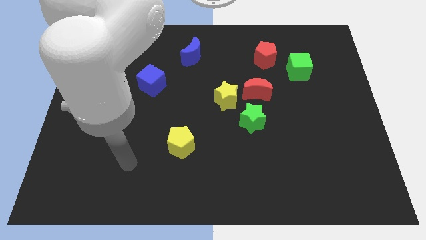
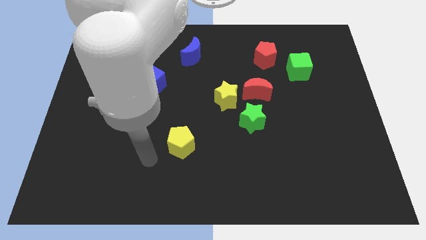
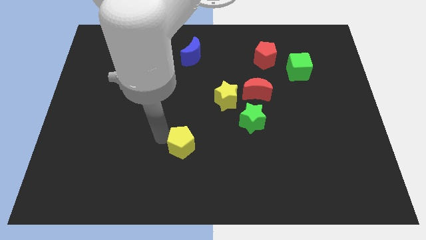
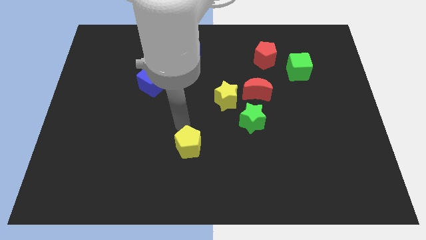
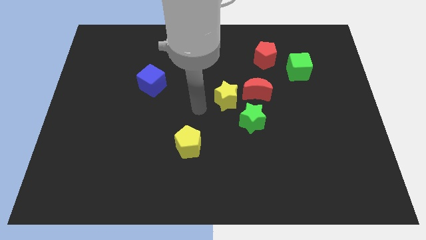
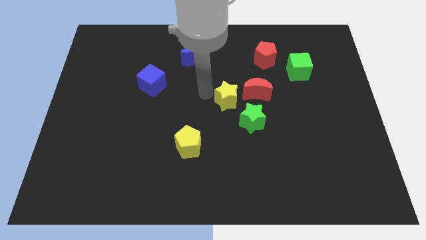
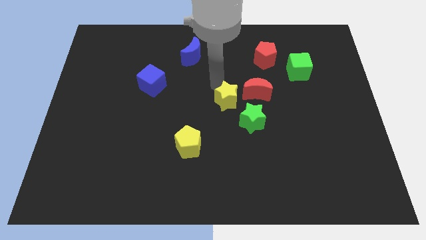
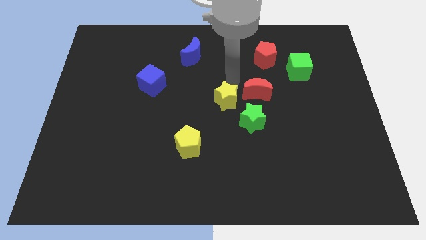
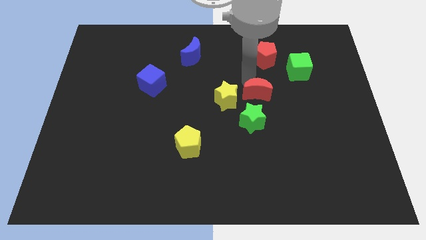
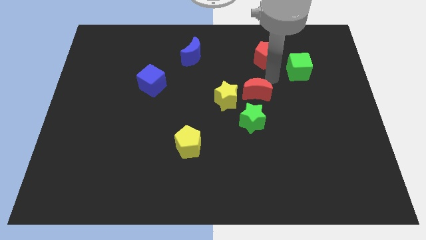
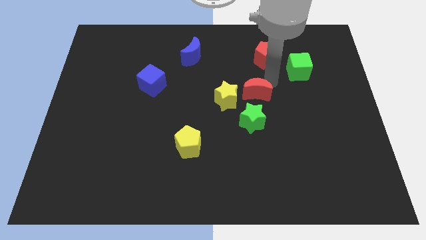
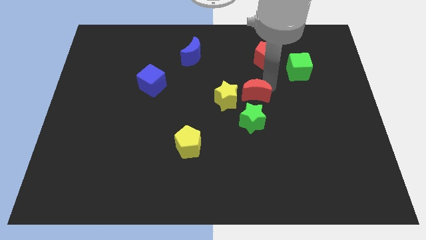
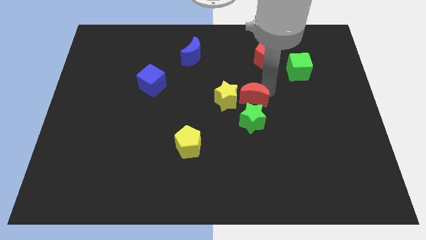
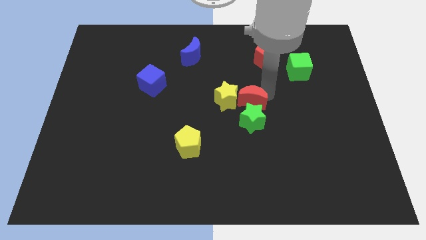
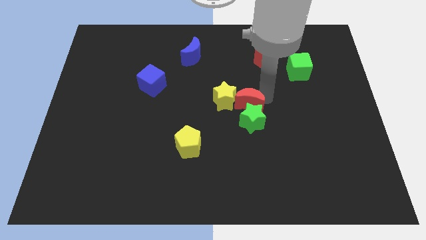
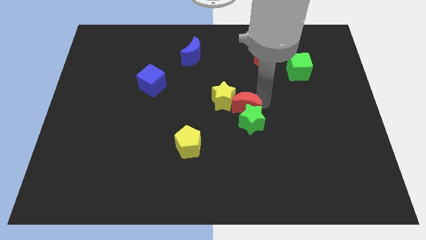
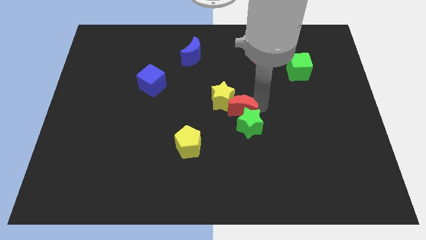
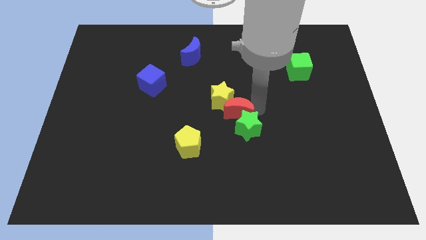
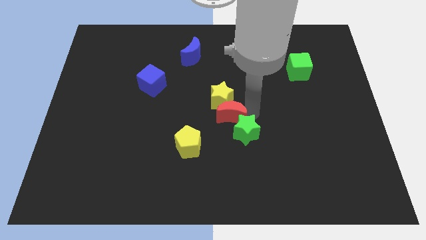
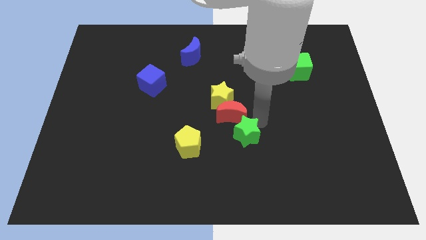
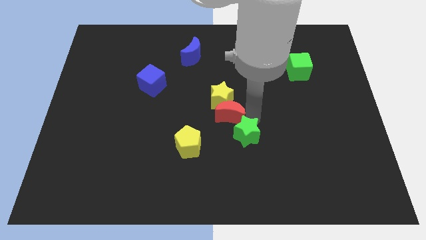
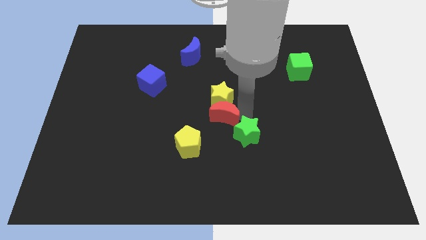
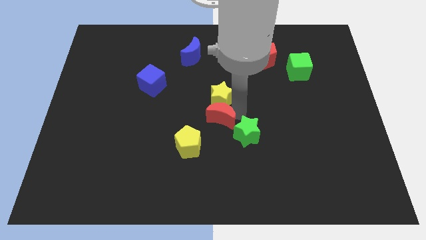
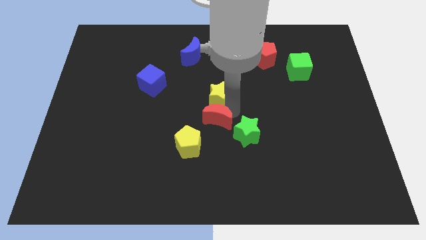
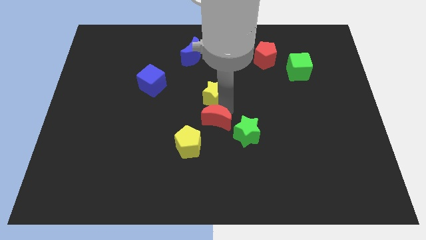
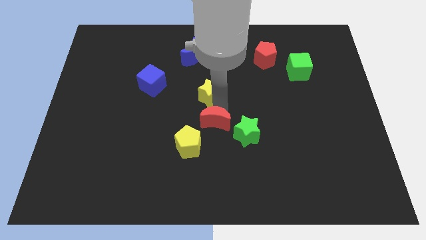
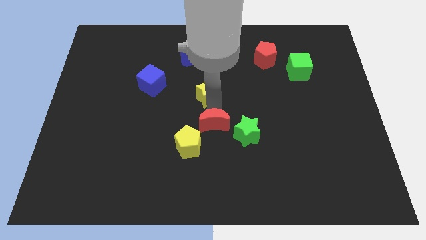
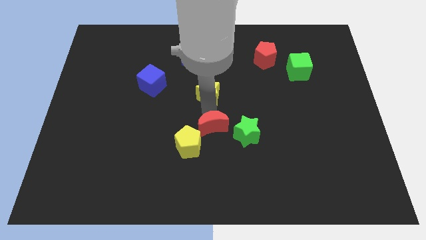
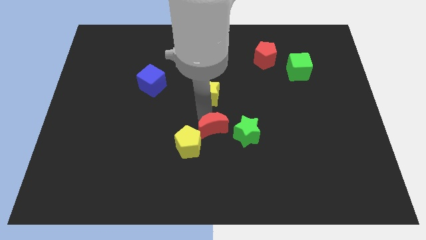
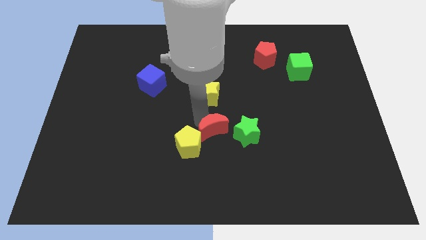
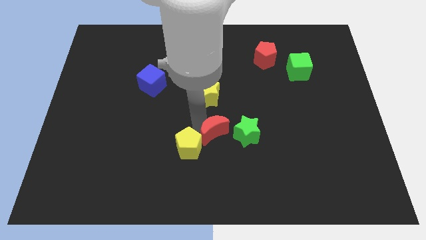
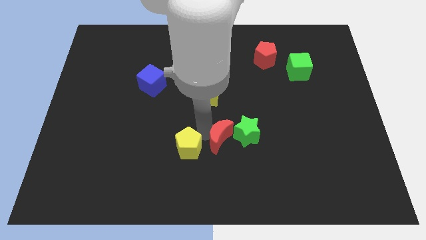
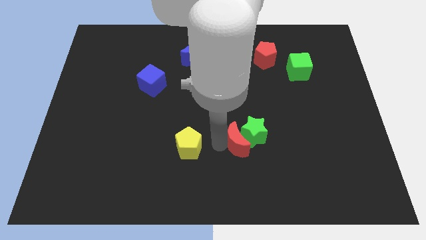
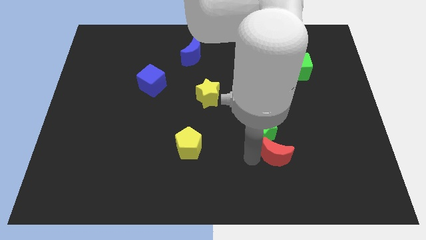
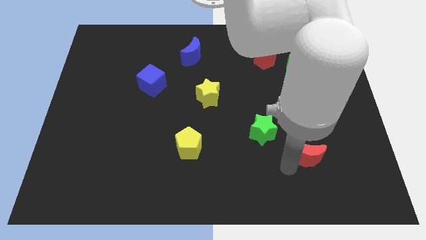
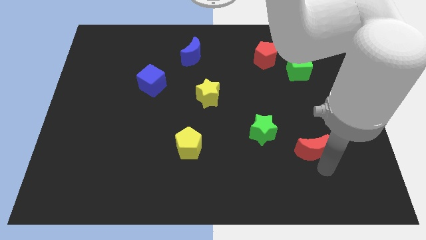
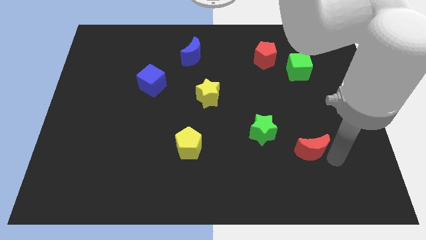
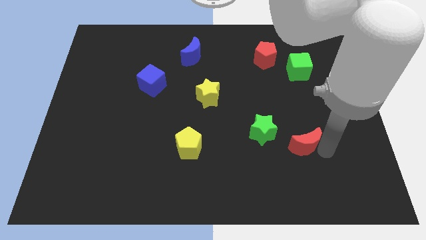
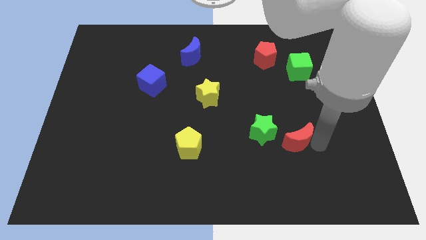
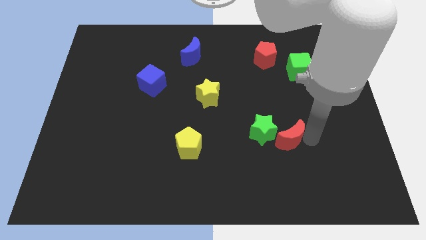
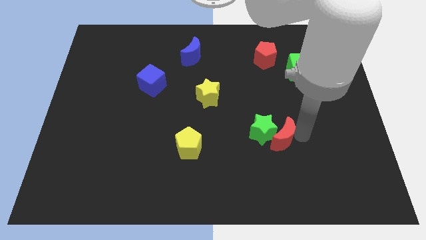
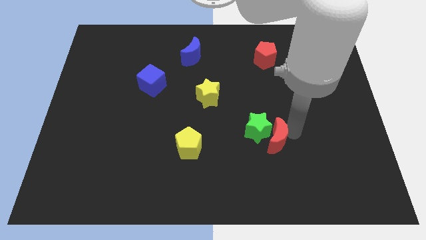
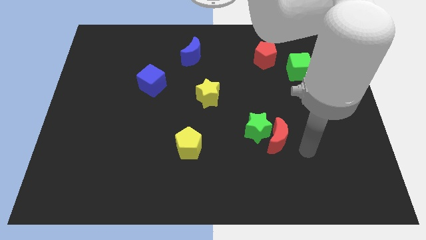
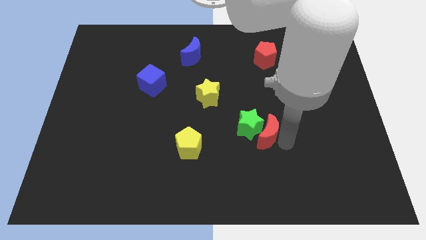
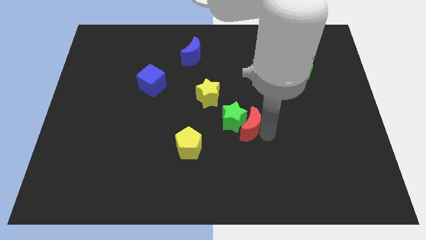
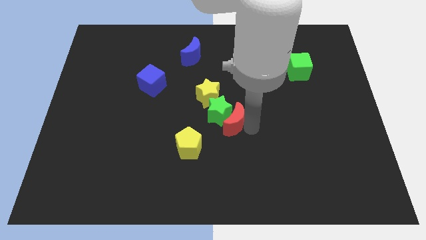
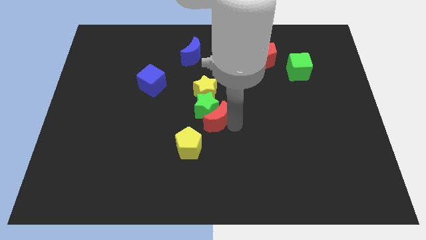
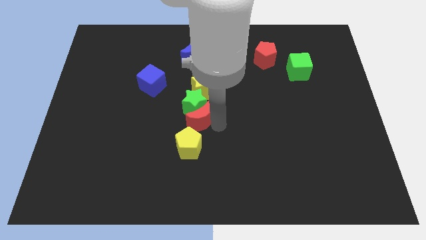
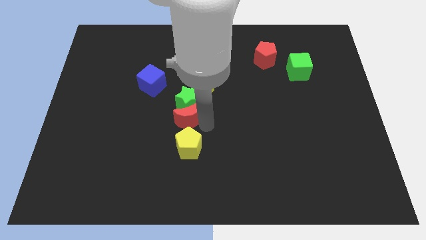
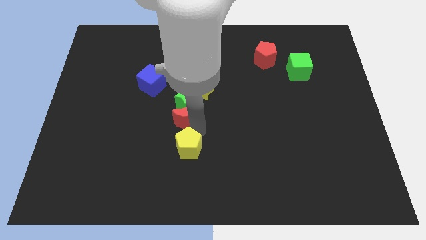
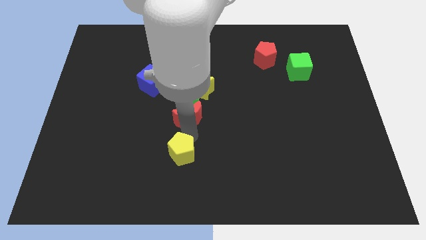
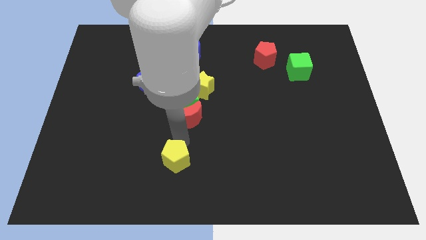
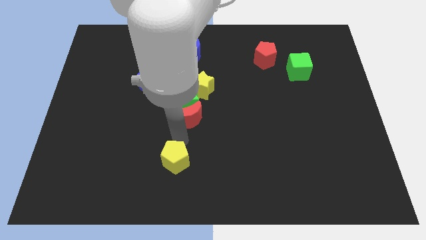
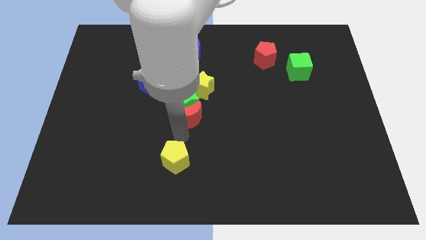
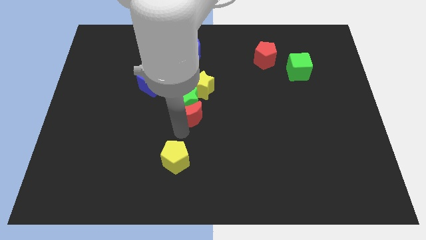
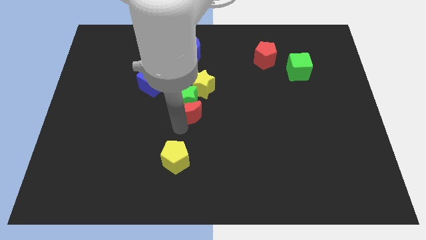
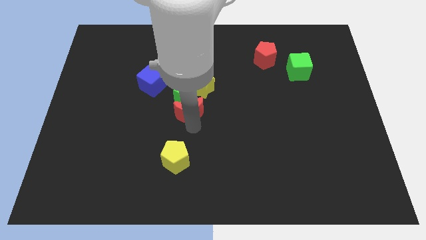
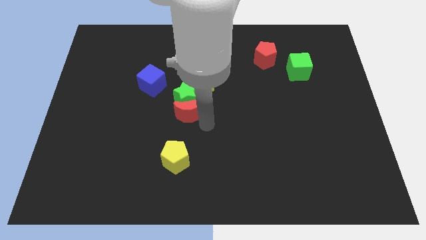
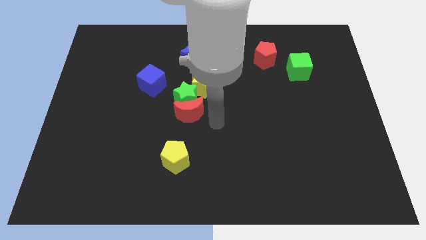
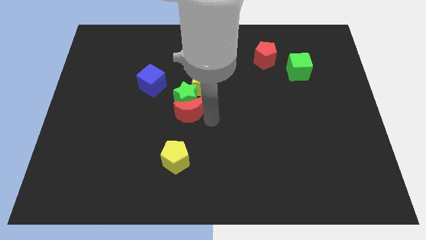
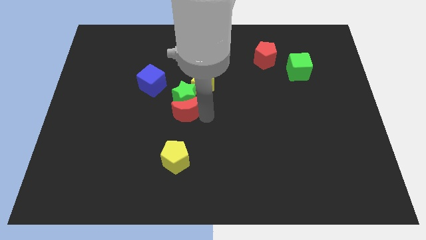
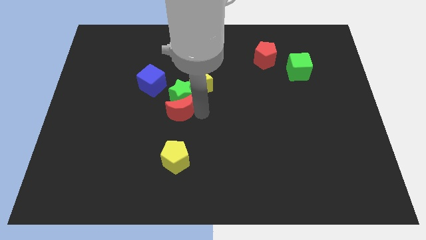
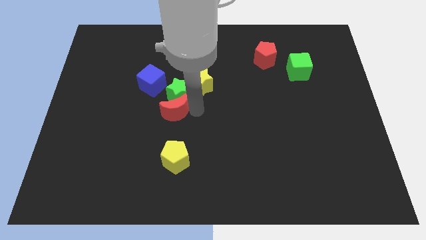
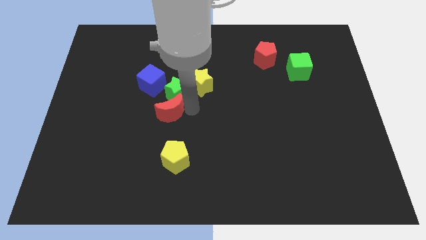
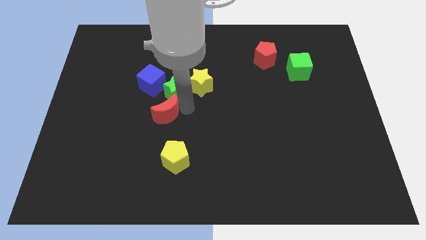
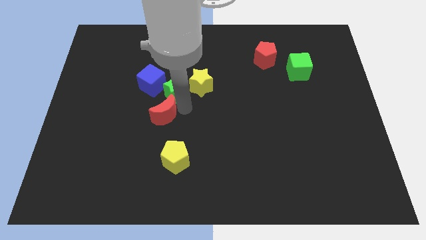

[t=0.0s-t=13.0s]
push the red moon left

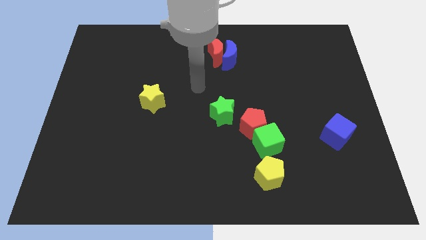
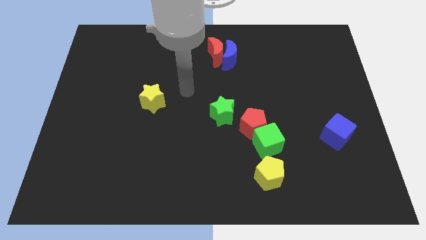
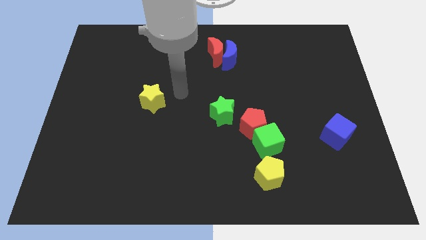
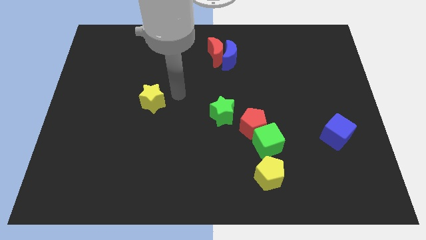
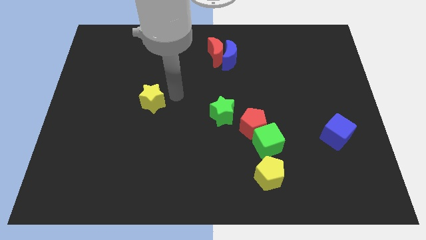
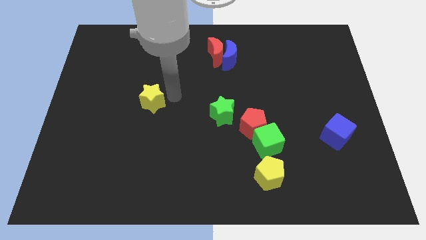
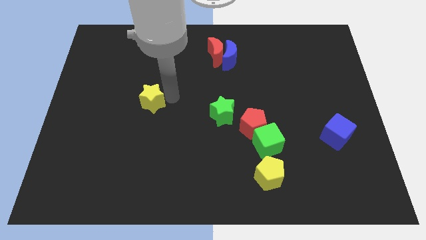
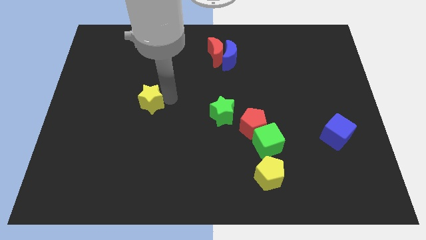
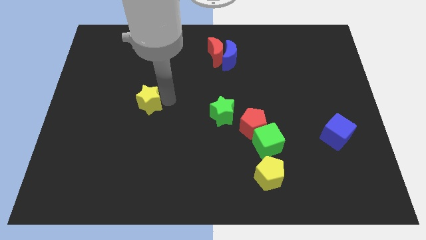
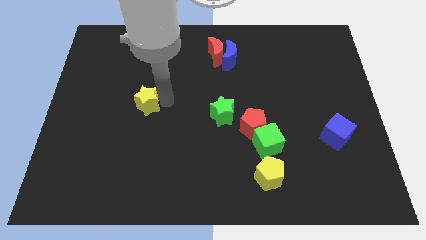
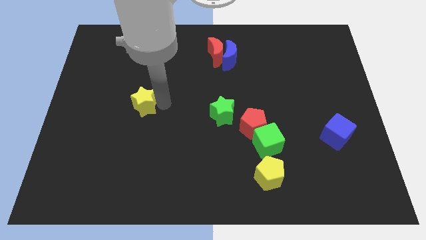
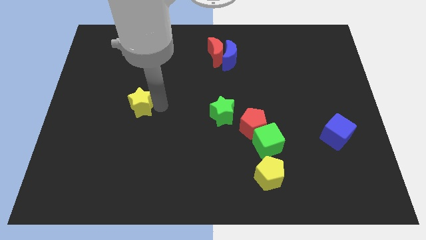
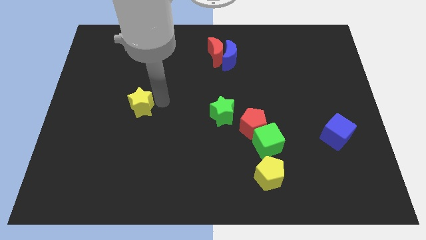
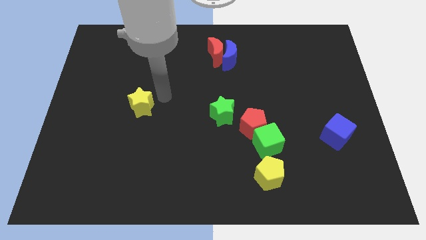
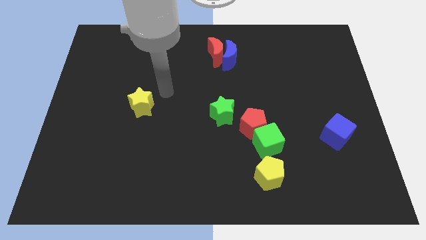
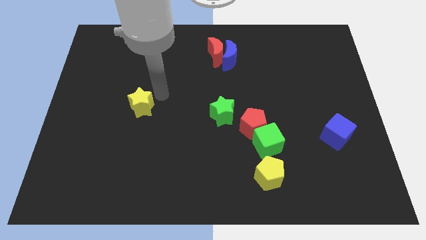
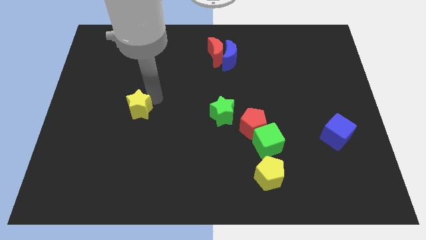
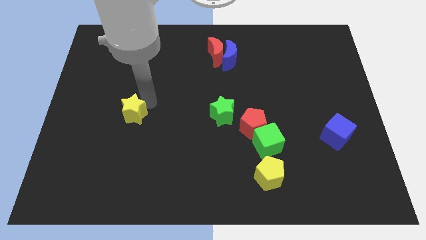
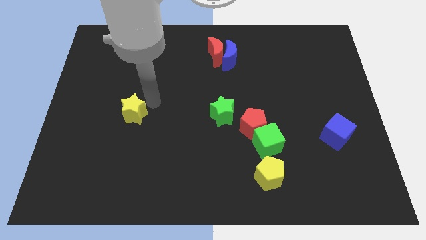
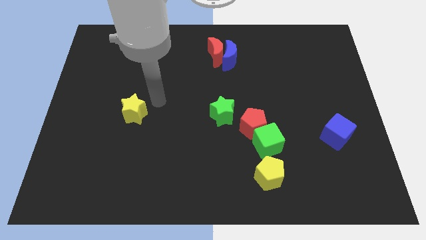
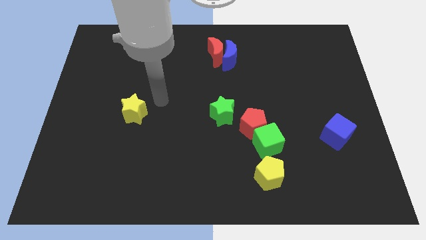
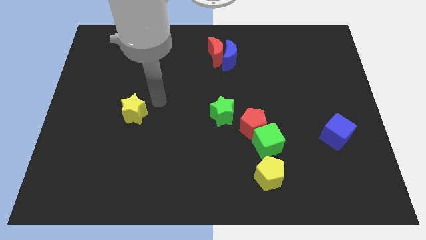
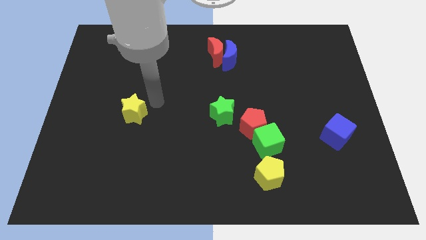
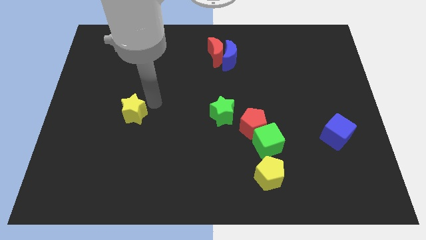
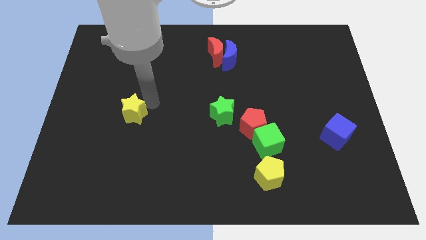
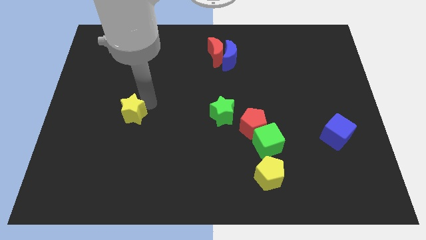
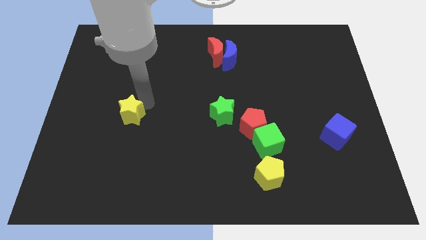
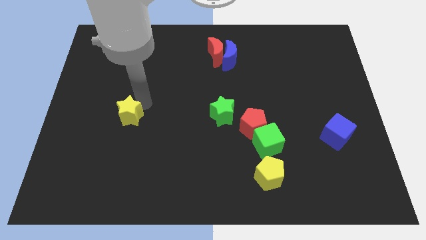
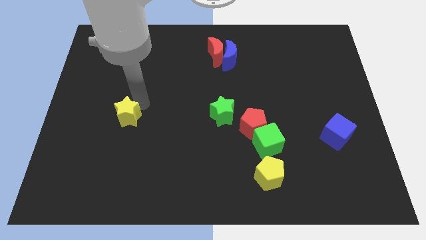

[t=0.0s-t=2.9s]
push the yellow star a bit diagonally down and to the left
